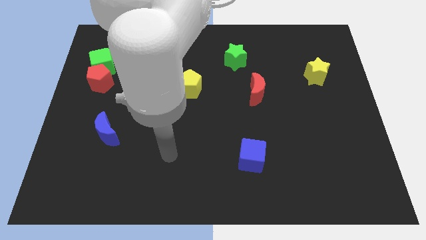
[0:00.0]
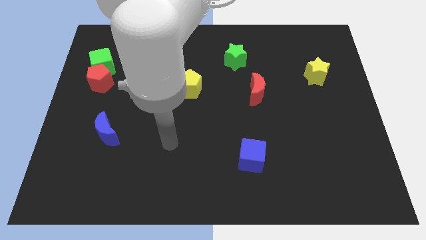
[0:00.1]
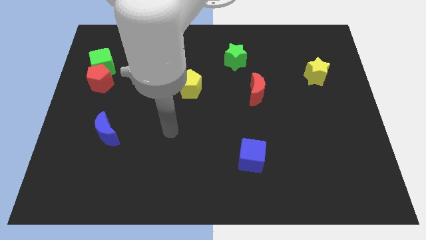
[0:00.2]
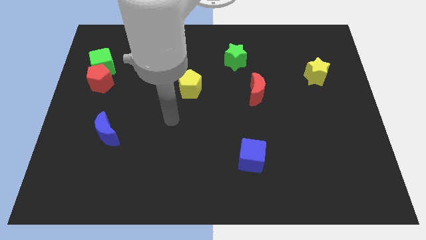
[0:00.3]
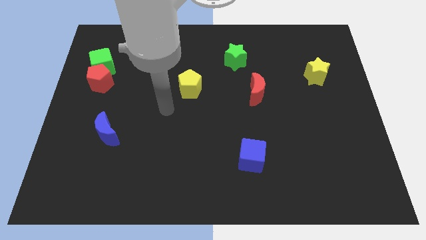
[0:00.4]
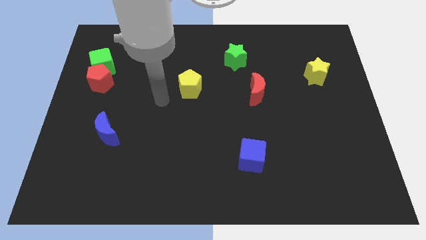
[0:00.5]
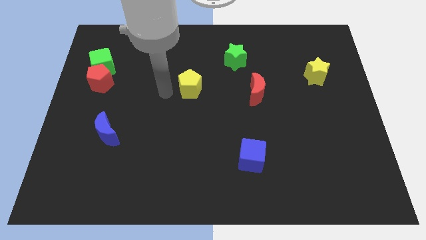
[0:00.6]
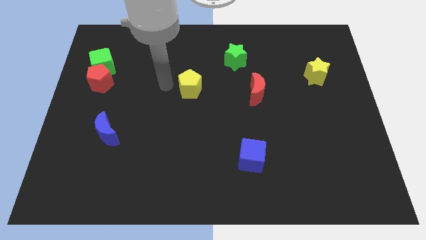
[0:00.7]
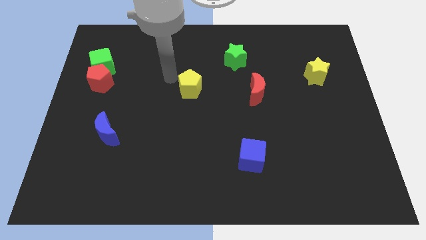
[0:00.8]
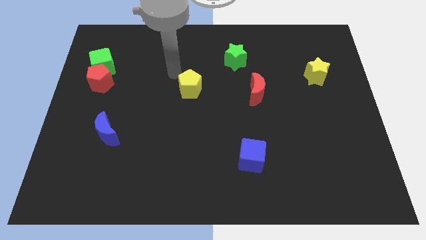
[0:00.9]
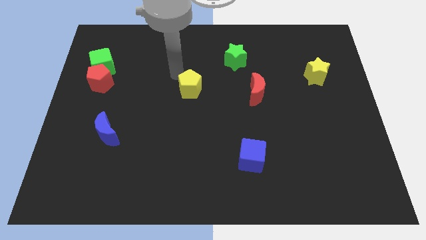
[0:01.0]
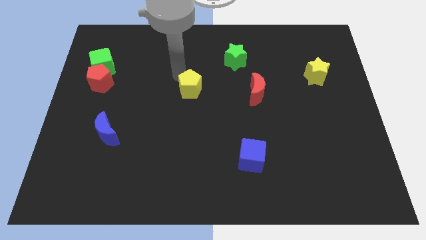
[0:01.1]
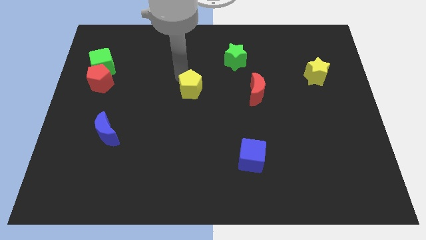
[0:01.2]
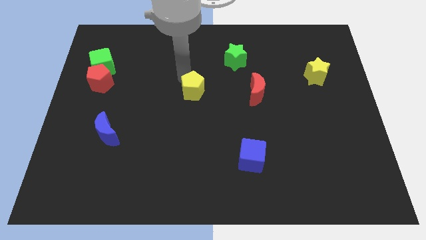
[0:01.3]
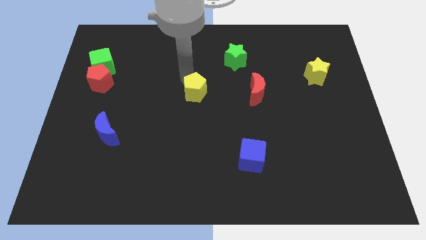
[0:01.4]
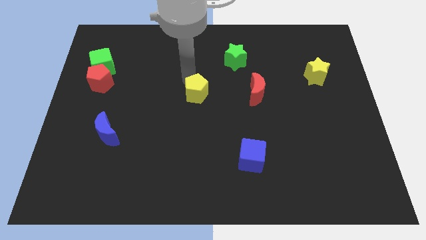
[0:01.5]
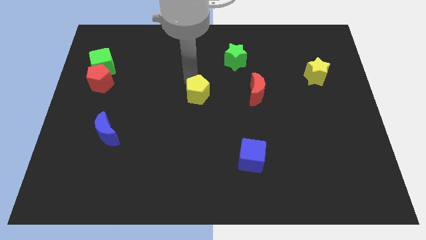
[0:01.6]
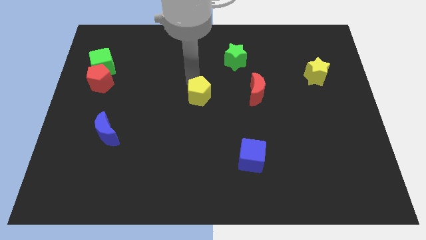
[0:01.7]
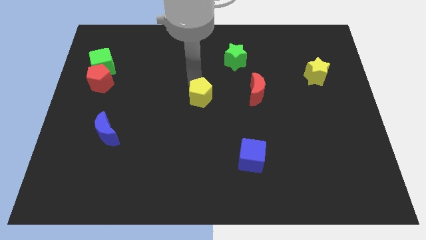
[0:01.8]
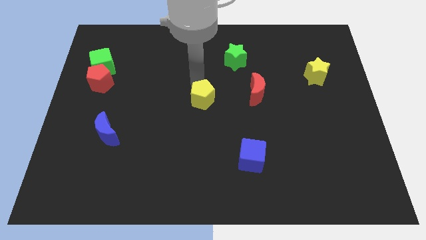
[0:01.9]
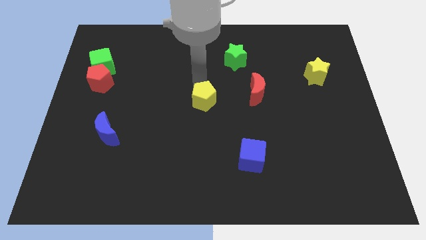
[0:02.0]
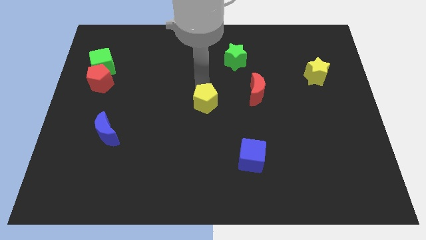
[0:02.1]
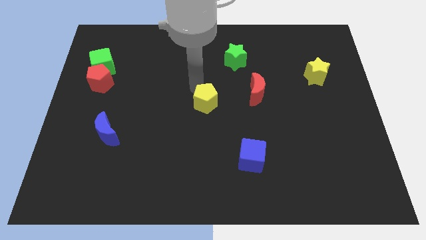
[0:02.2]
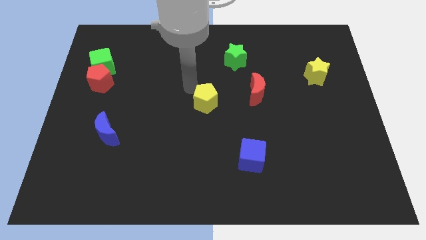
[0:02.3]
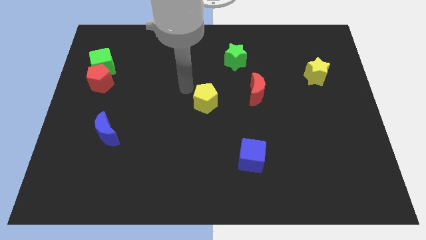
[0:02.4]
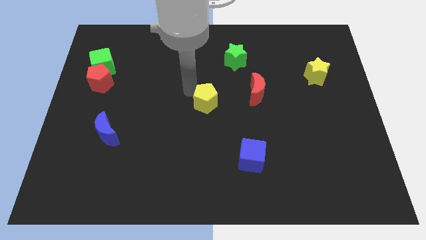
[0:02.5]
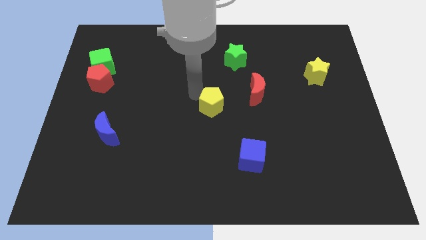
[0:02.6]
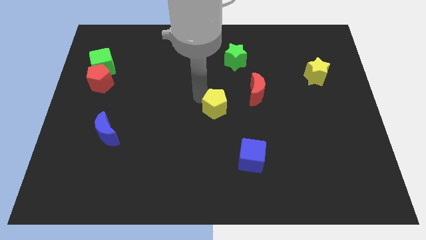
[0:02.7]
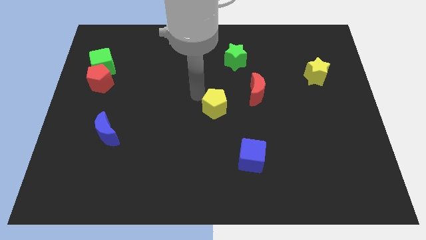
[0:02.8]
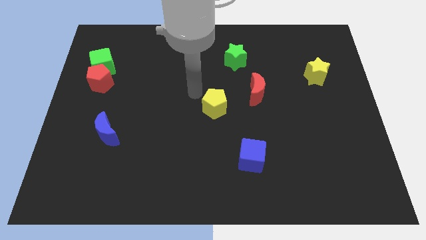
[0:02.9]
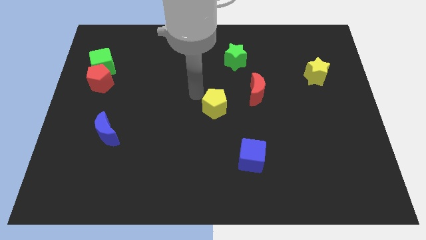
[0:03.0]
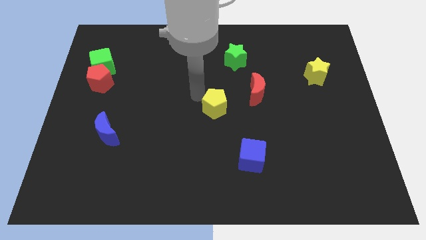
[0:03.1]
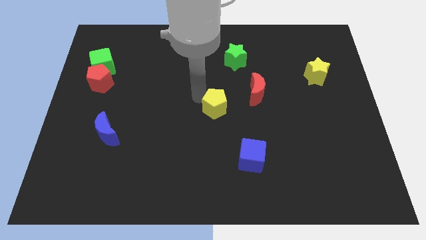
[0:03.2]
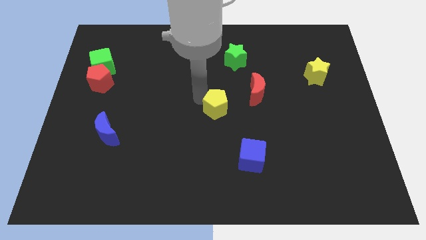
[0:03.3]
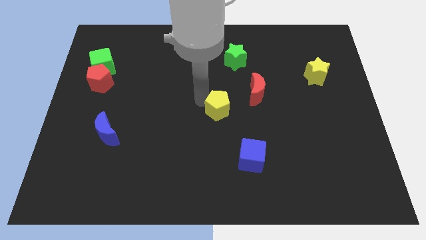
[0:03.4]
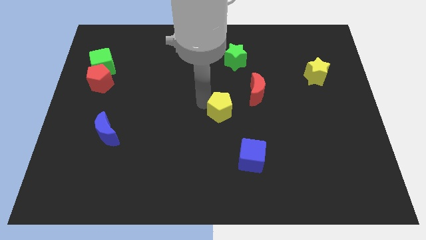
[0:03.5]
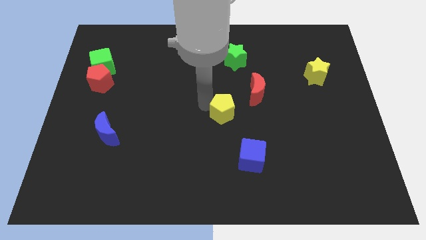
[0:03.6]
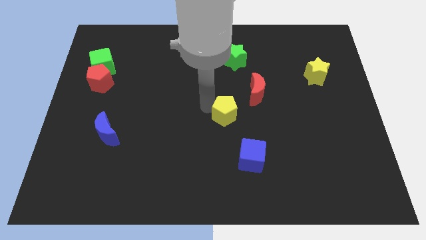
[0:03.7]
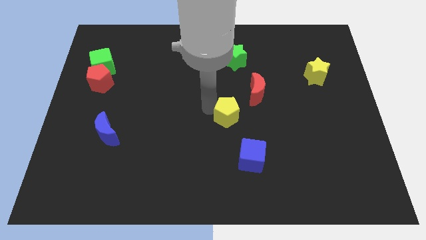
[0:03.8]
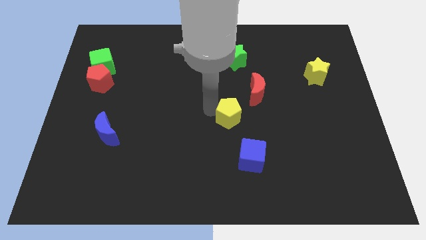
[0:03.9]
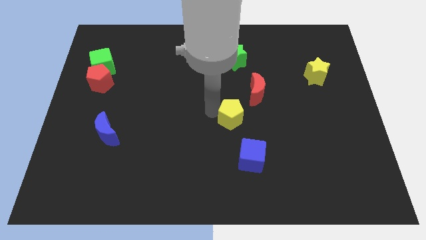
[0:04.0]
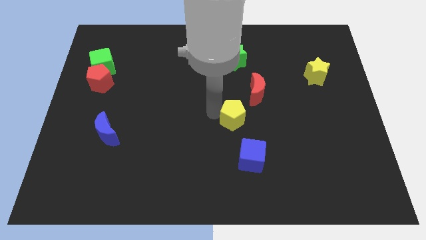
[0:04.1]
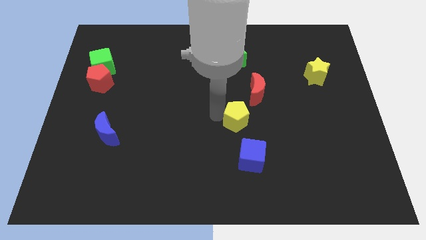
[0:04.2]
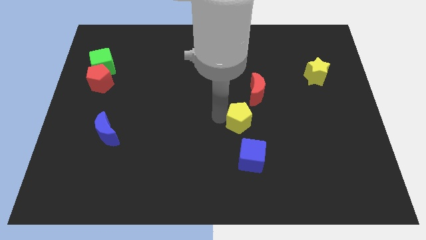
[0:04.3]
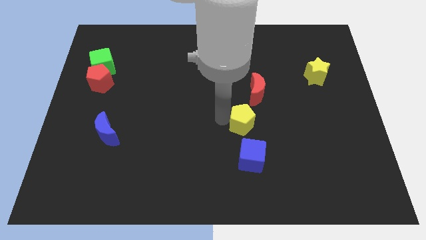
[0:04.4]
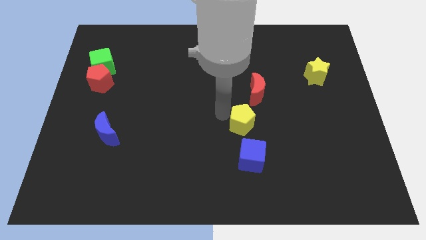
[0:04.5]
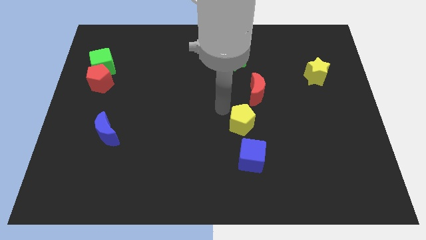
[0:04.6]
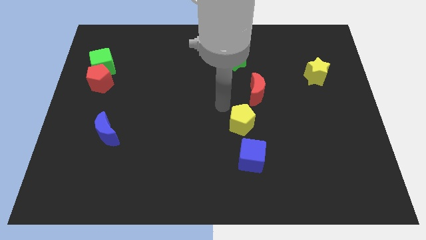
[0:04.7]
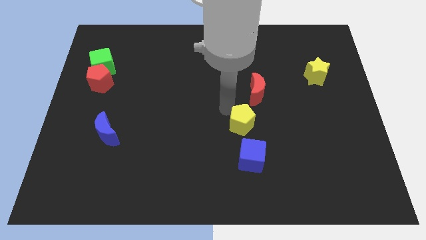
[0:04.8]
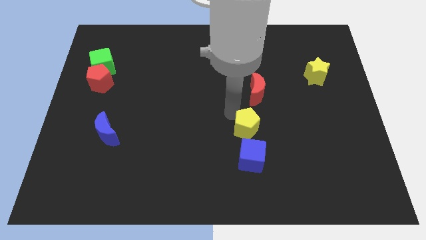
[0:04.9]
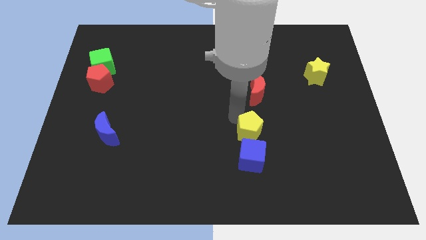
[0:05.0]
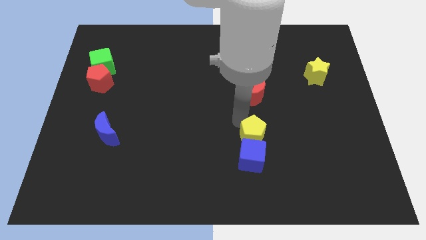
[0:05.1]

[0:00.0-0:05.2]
move the yellow pentagon downwards and to the right

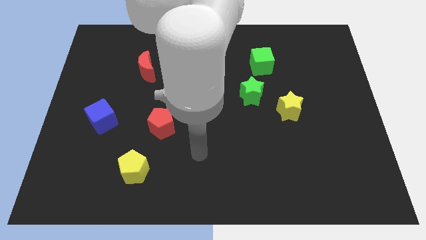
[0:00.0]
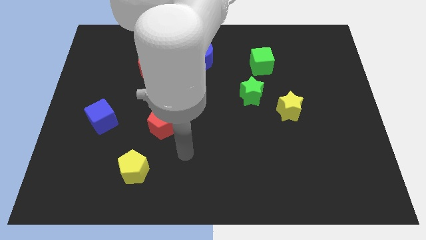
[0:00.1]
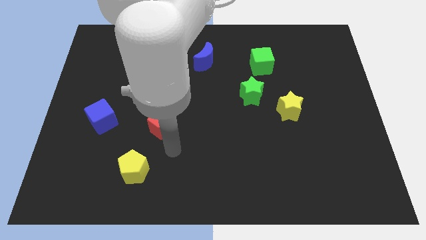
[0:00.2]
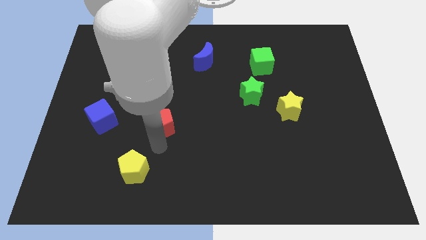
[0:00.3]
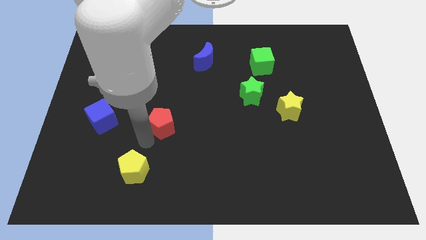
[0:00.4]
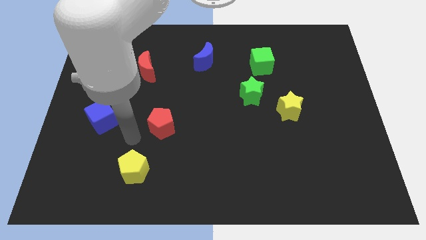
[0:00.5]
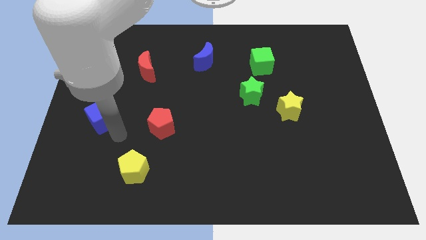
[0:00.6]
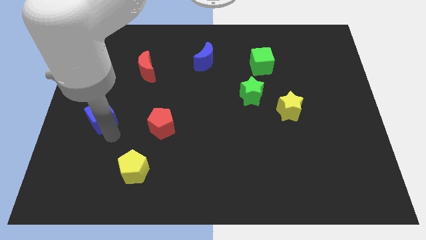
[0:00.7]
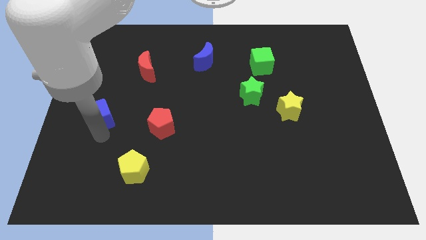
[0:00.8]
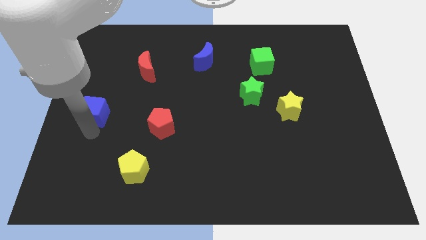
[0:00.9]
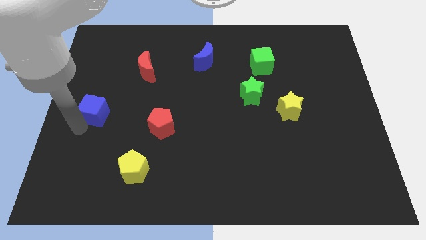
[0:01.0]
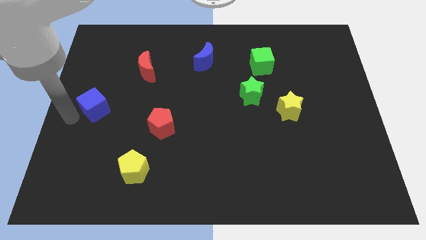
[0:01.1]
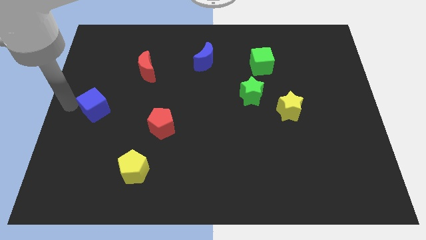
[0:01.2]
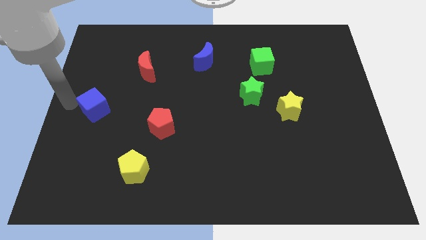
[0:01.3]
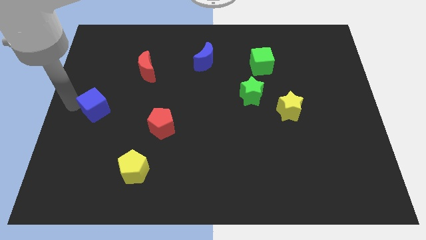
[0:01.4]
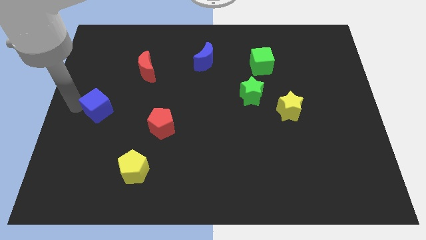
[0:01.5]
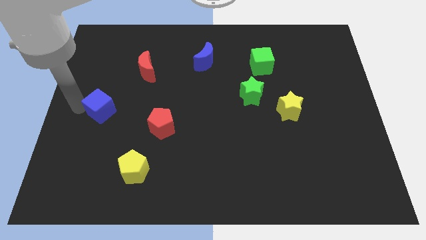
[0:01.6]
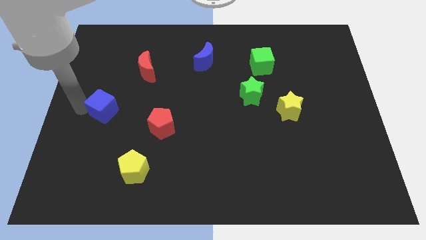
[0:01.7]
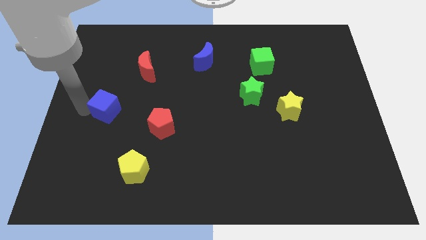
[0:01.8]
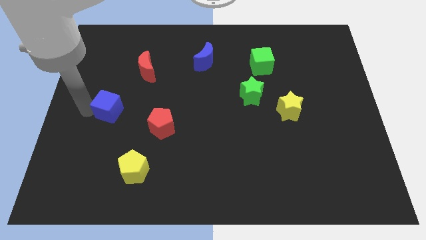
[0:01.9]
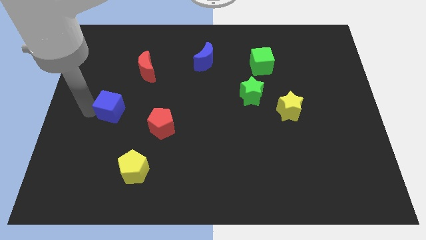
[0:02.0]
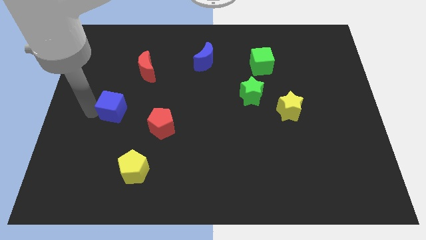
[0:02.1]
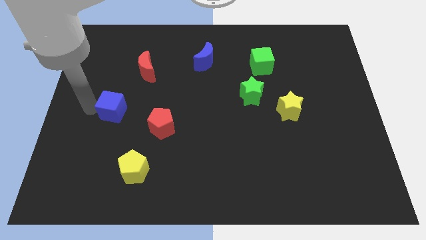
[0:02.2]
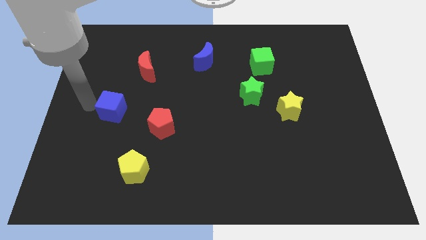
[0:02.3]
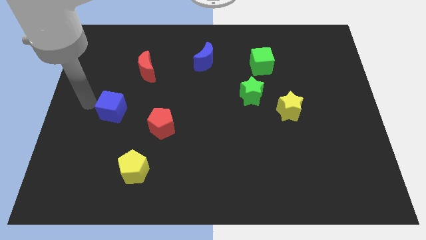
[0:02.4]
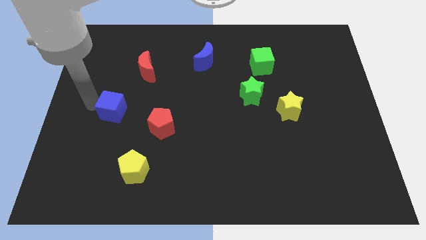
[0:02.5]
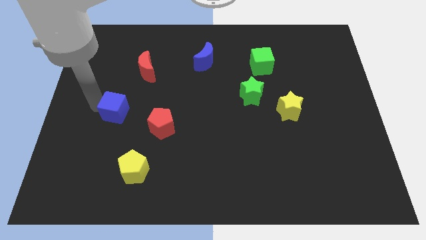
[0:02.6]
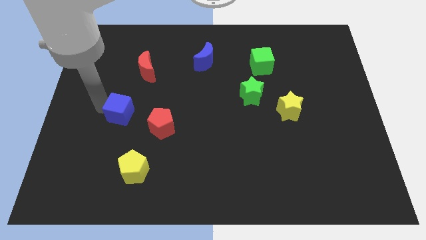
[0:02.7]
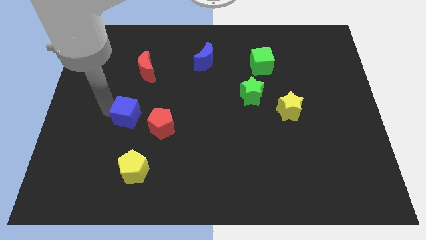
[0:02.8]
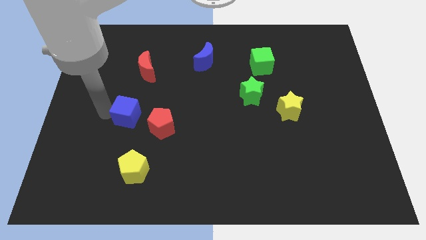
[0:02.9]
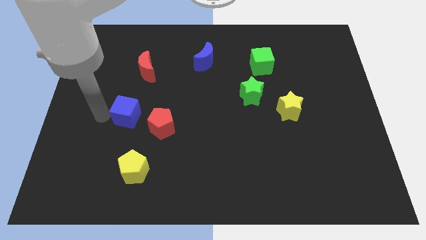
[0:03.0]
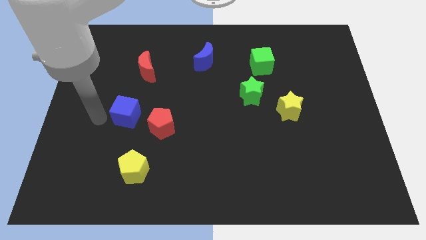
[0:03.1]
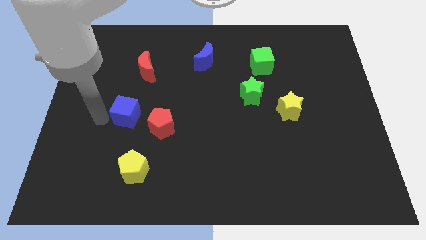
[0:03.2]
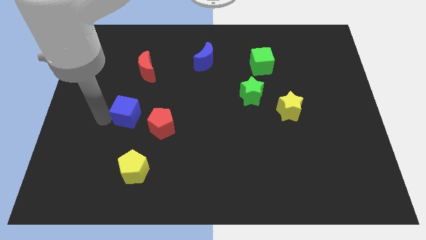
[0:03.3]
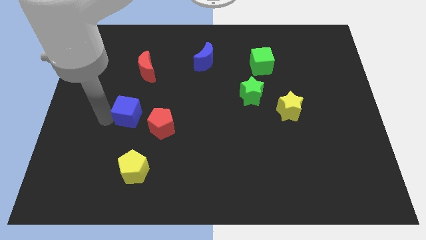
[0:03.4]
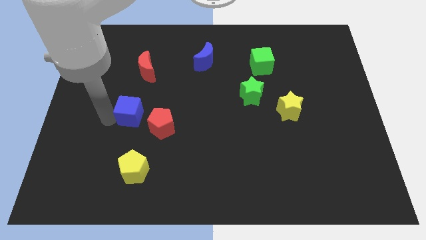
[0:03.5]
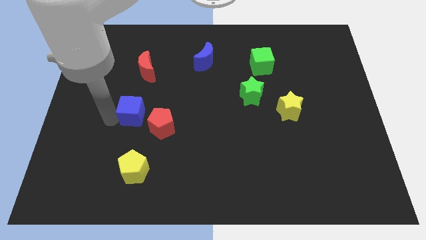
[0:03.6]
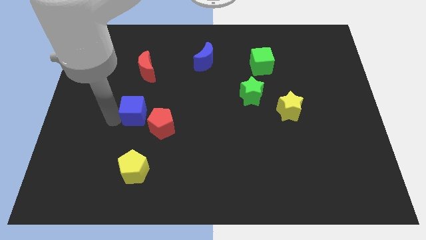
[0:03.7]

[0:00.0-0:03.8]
push the blue cube somewhat right
